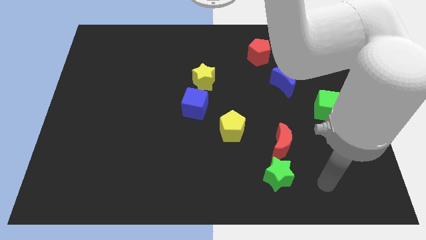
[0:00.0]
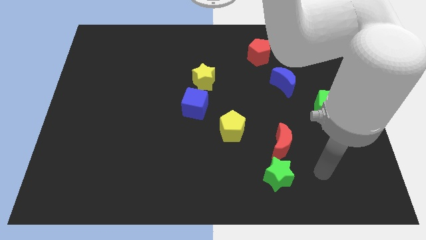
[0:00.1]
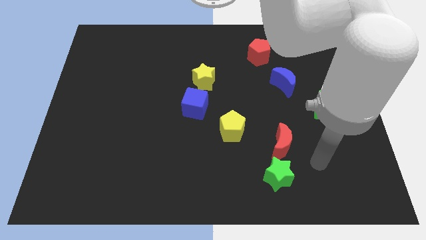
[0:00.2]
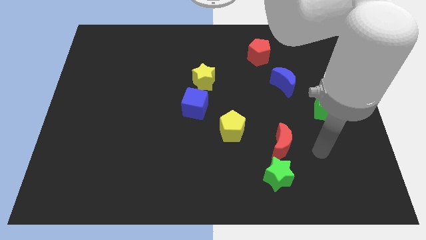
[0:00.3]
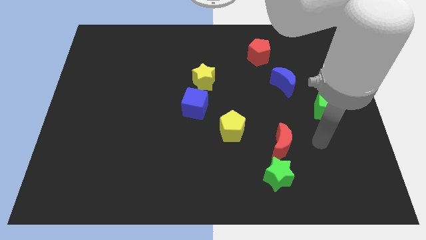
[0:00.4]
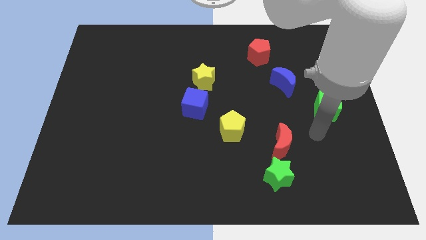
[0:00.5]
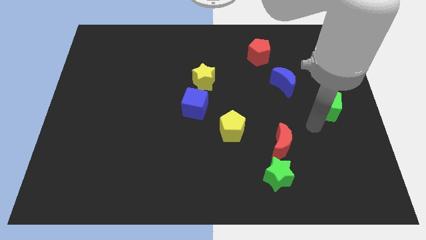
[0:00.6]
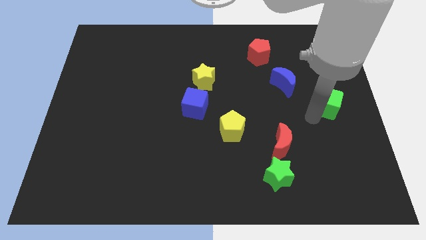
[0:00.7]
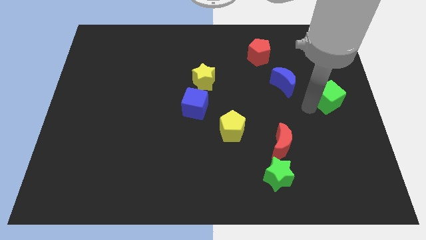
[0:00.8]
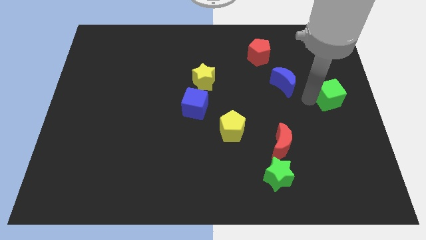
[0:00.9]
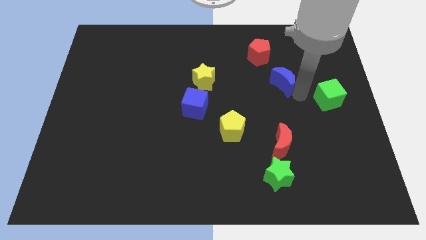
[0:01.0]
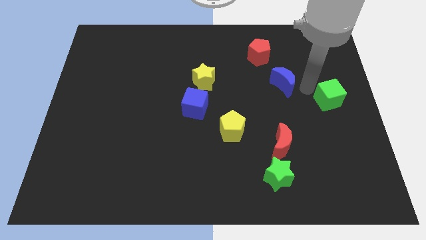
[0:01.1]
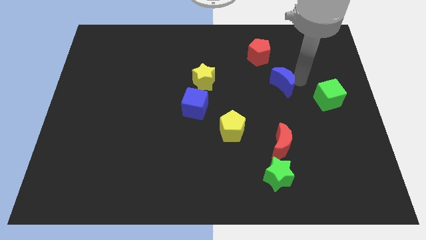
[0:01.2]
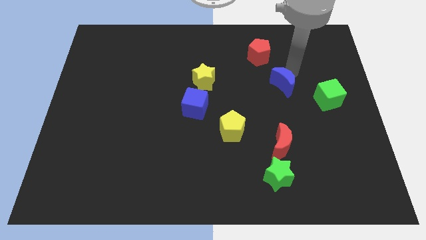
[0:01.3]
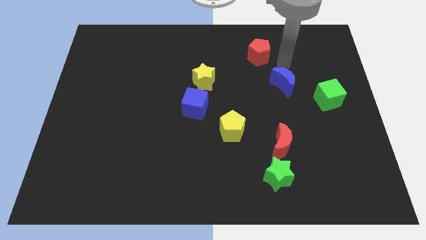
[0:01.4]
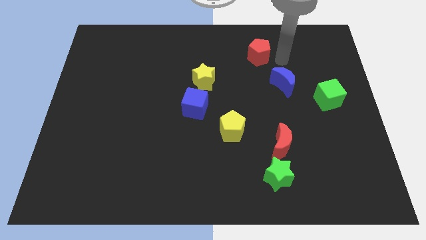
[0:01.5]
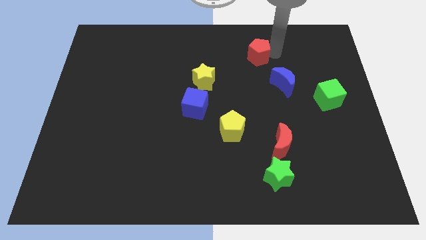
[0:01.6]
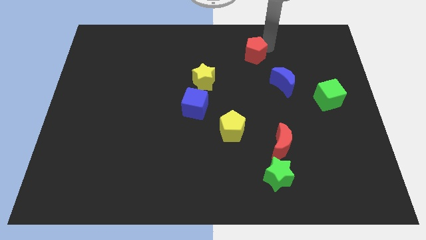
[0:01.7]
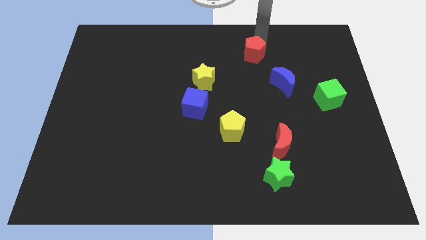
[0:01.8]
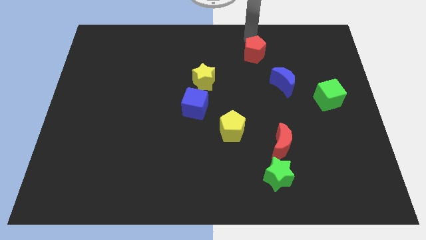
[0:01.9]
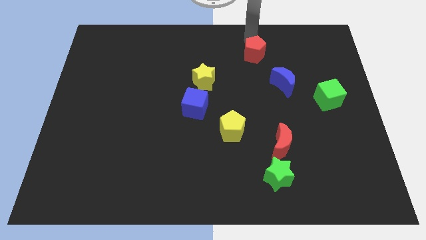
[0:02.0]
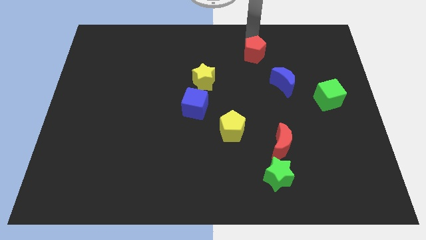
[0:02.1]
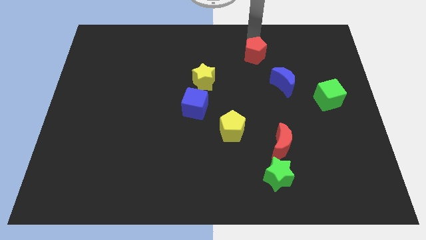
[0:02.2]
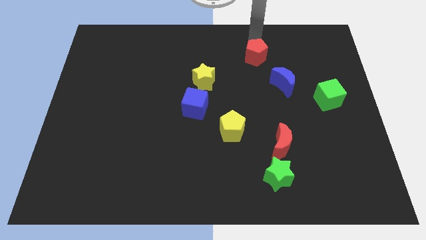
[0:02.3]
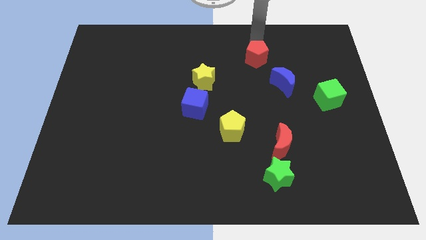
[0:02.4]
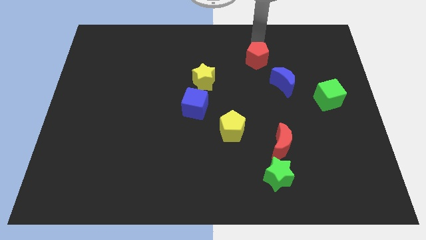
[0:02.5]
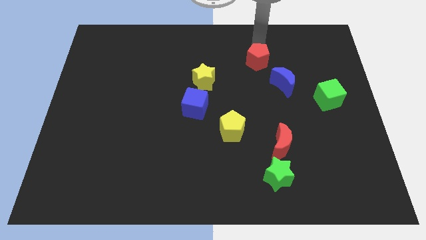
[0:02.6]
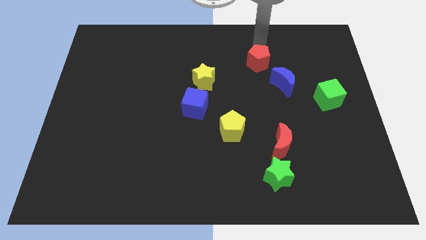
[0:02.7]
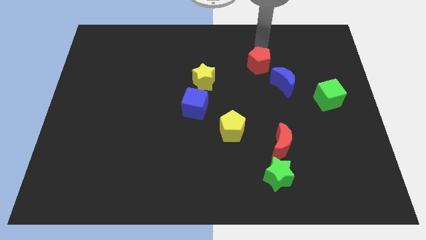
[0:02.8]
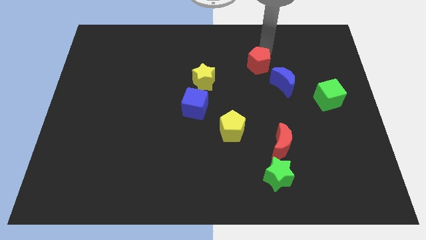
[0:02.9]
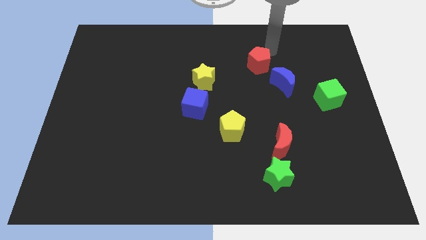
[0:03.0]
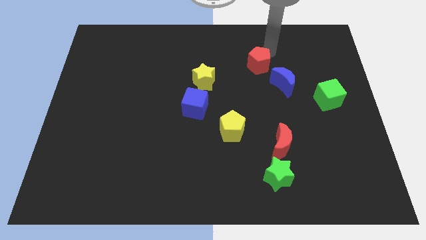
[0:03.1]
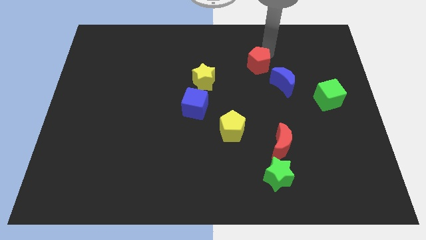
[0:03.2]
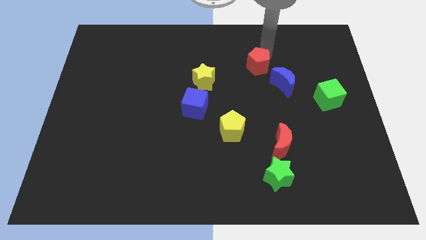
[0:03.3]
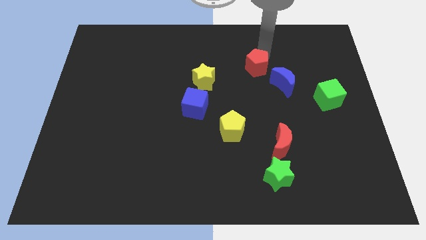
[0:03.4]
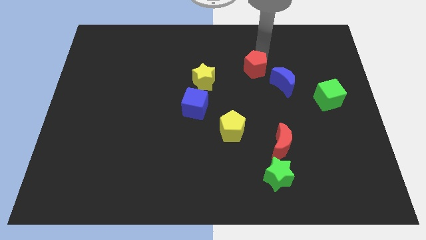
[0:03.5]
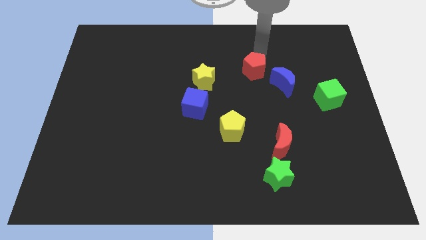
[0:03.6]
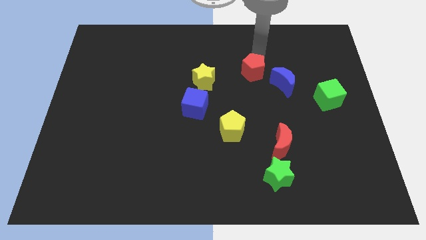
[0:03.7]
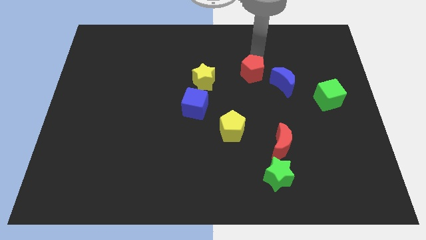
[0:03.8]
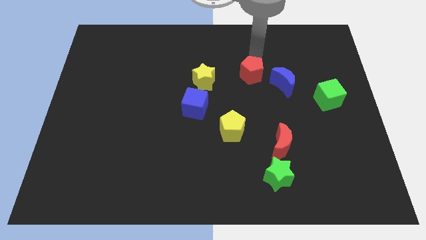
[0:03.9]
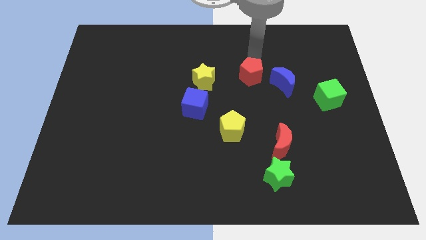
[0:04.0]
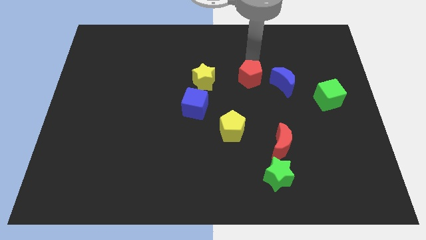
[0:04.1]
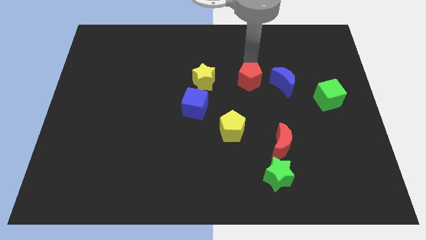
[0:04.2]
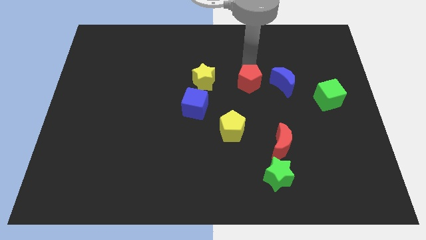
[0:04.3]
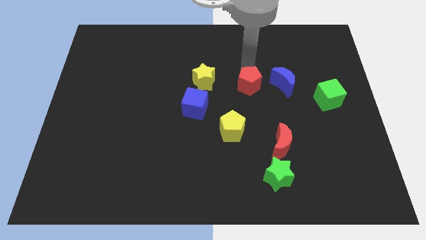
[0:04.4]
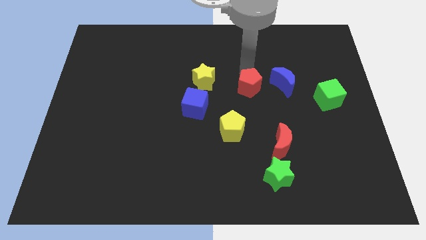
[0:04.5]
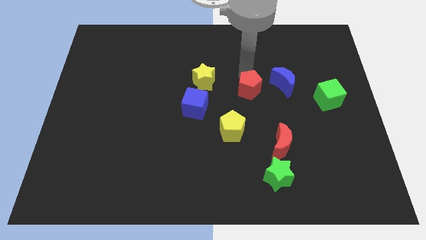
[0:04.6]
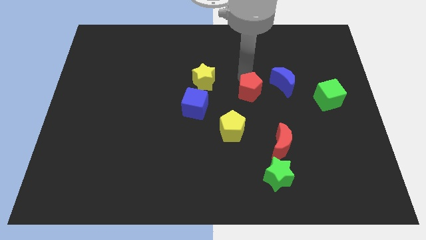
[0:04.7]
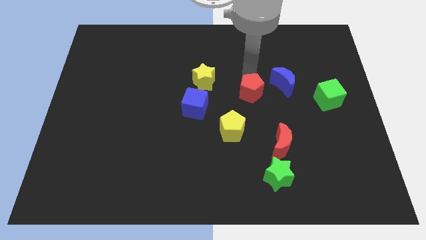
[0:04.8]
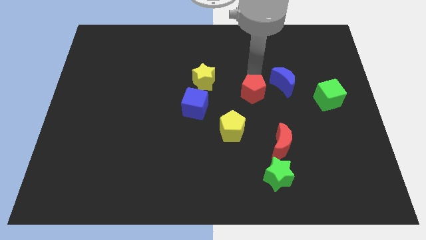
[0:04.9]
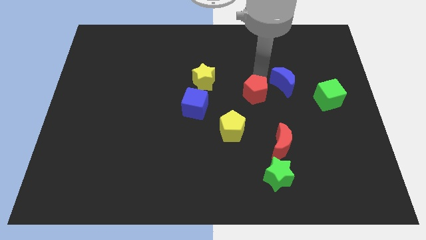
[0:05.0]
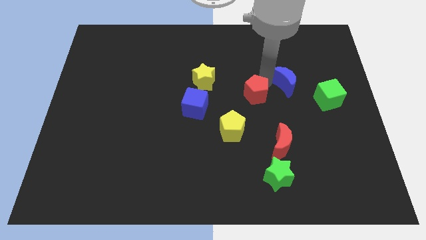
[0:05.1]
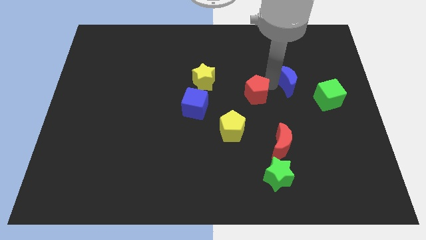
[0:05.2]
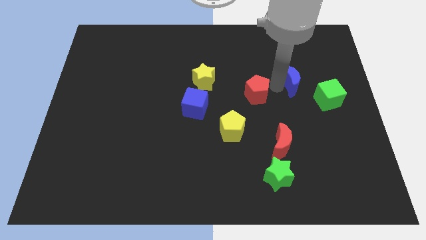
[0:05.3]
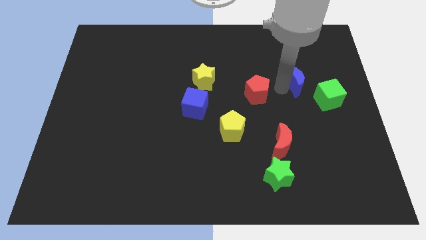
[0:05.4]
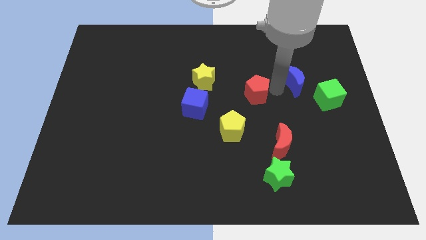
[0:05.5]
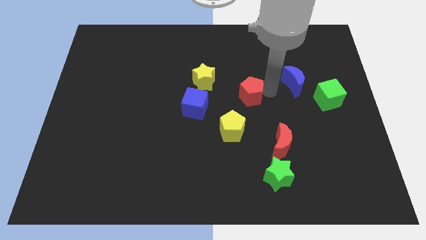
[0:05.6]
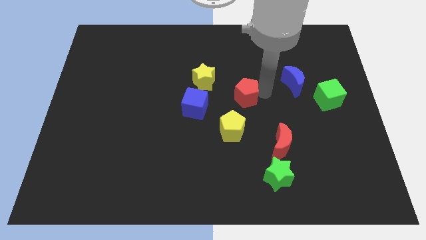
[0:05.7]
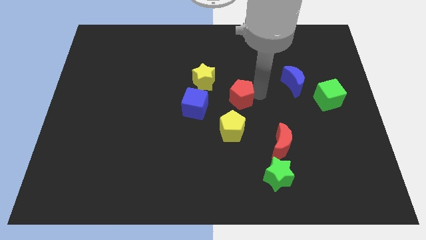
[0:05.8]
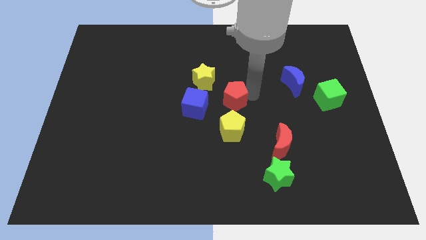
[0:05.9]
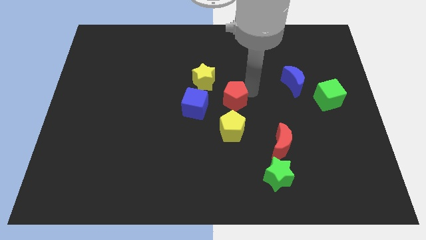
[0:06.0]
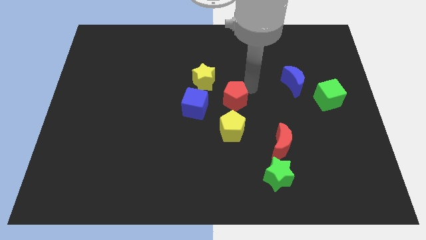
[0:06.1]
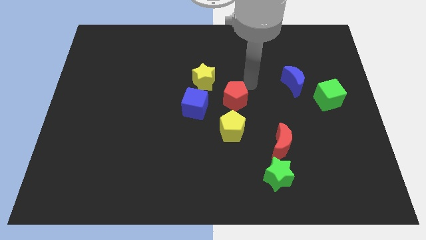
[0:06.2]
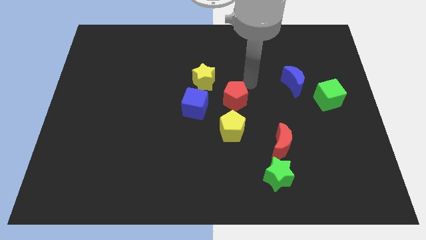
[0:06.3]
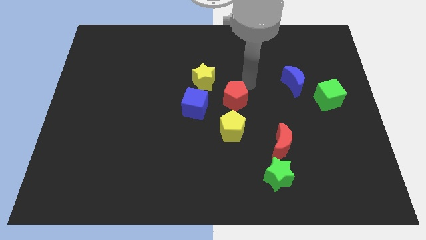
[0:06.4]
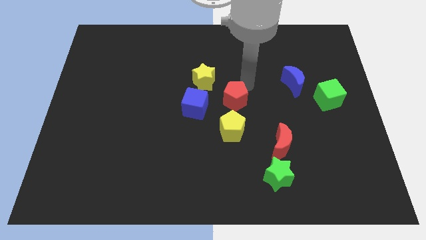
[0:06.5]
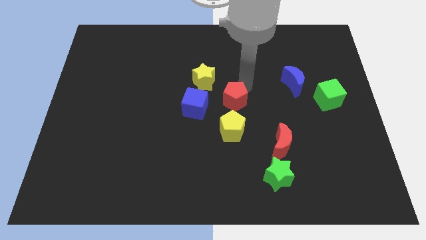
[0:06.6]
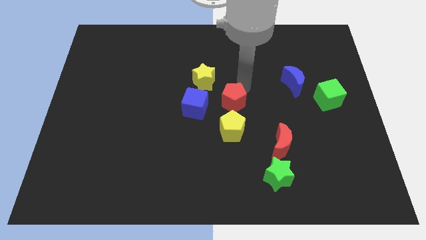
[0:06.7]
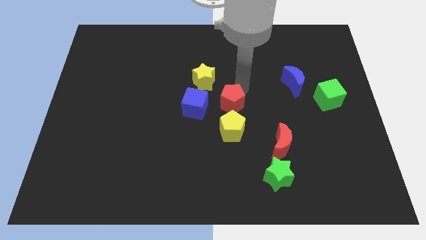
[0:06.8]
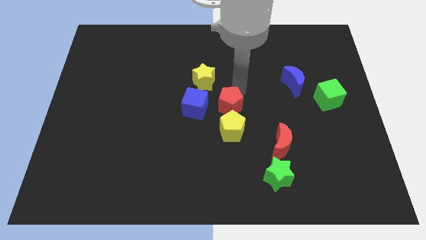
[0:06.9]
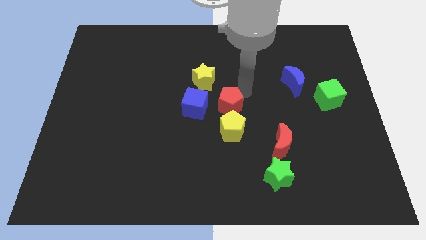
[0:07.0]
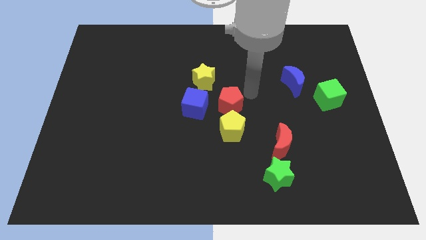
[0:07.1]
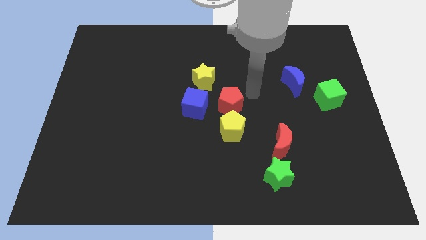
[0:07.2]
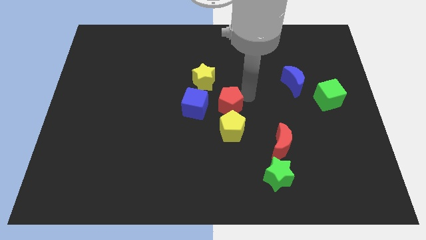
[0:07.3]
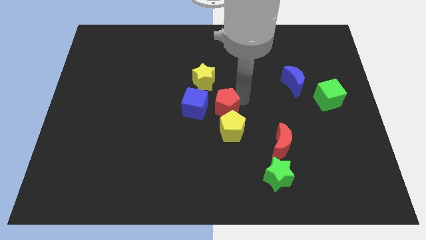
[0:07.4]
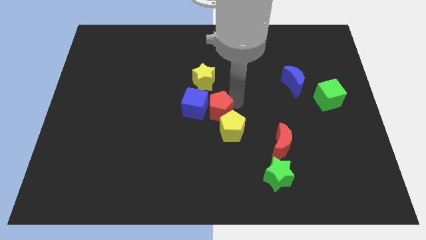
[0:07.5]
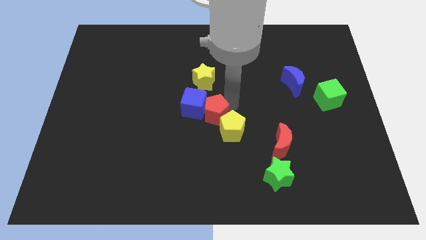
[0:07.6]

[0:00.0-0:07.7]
slide the red pentagon downwards and to the left diagonally

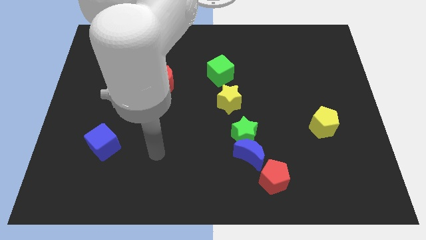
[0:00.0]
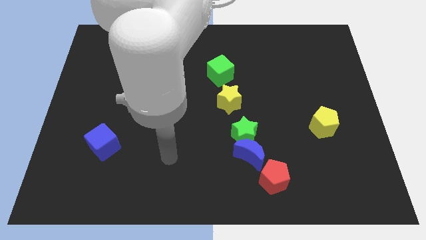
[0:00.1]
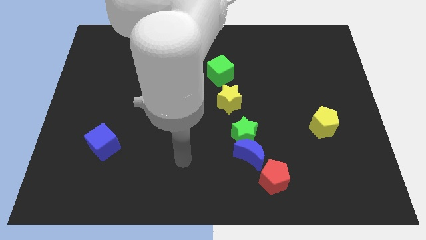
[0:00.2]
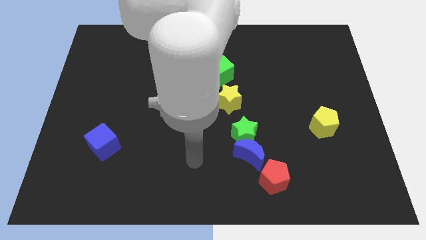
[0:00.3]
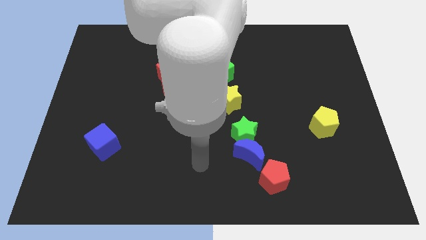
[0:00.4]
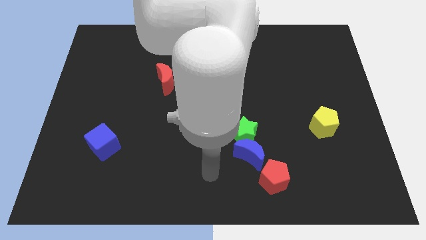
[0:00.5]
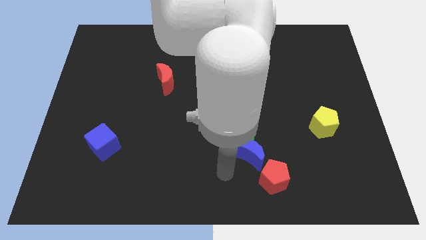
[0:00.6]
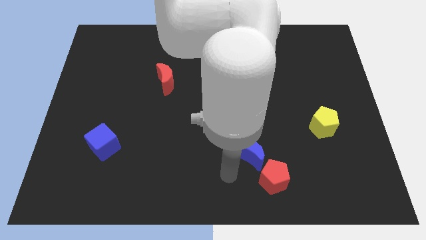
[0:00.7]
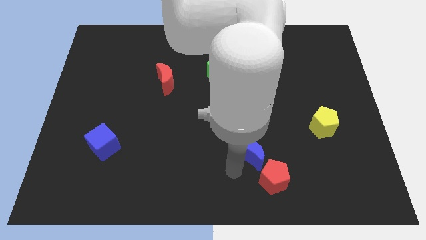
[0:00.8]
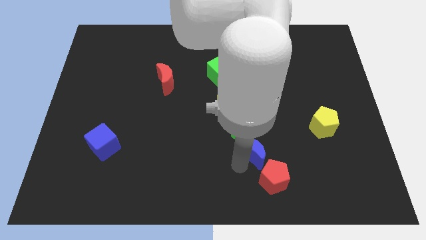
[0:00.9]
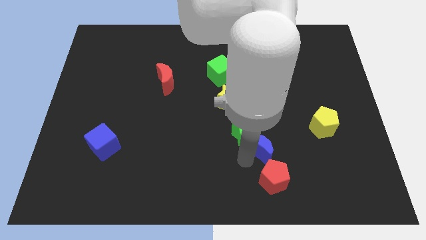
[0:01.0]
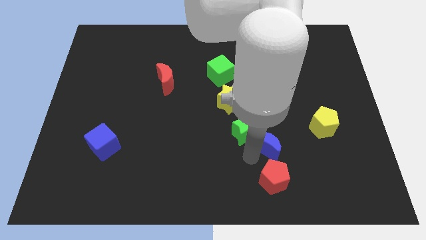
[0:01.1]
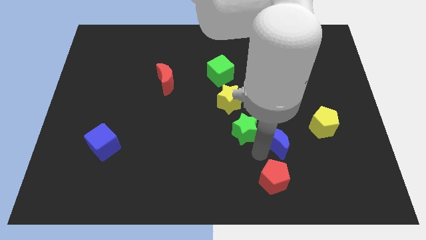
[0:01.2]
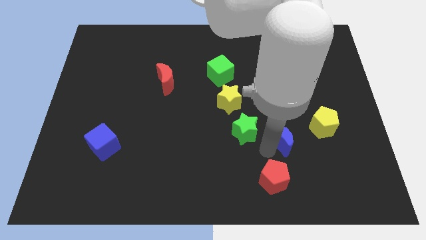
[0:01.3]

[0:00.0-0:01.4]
slide the blue moon slightly diagonally upwards and to the right
